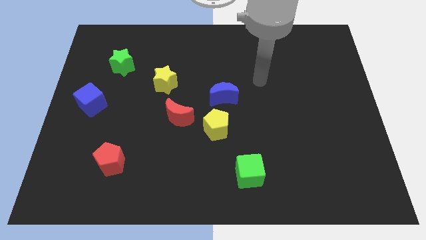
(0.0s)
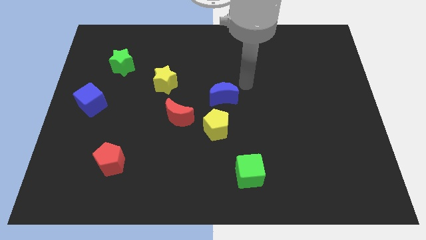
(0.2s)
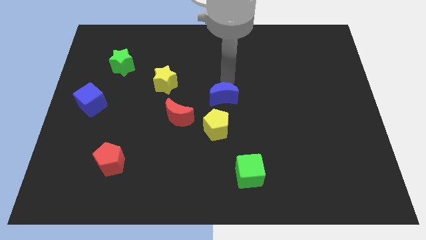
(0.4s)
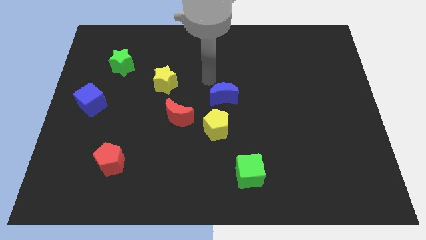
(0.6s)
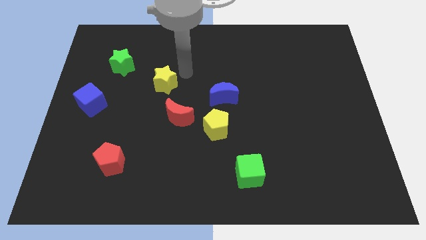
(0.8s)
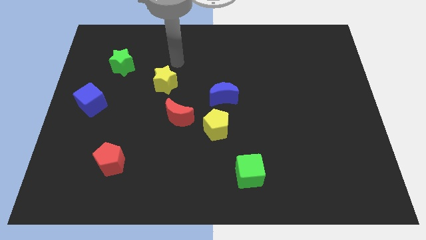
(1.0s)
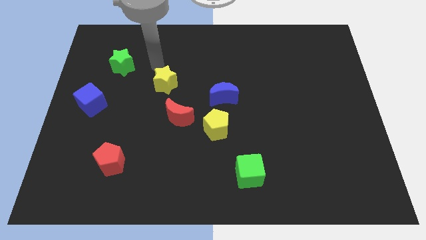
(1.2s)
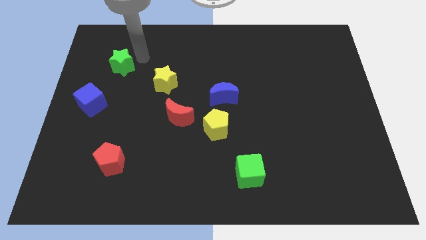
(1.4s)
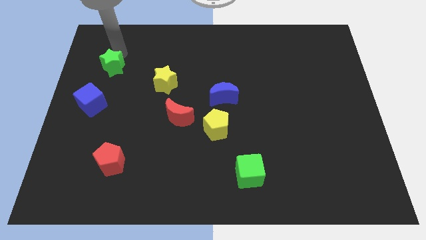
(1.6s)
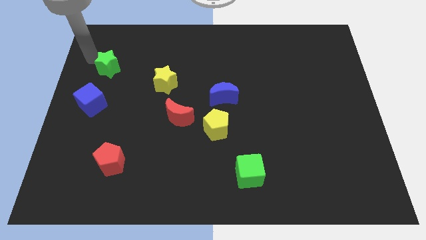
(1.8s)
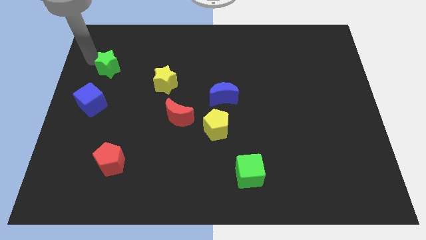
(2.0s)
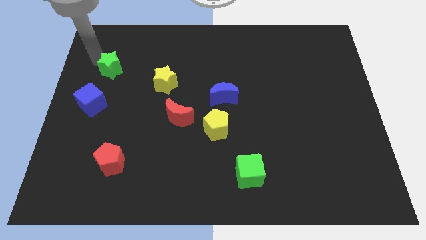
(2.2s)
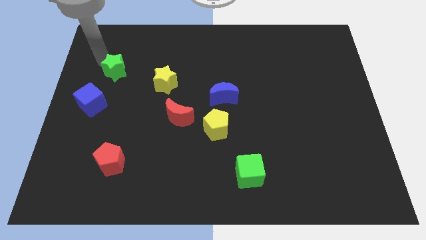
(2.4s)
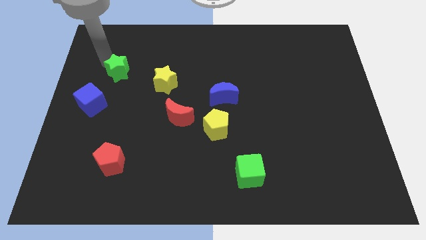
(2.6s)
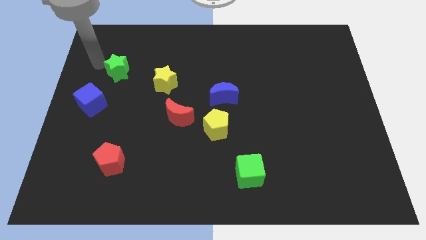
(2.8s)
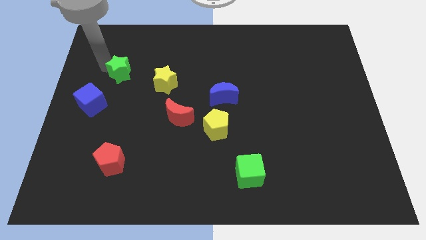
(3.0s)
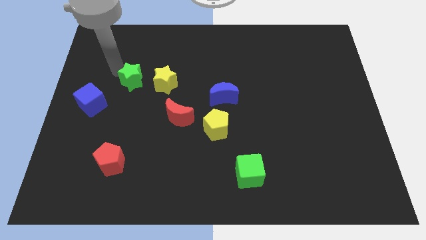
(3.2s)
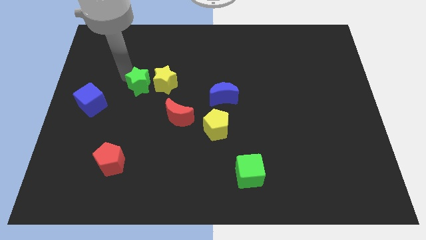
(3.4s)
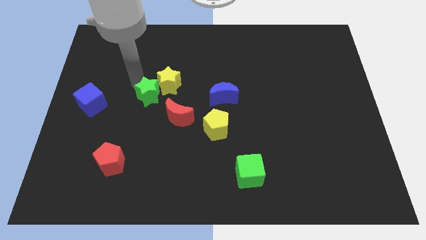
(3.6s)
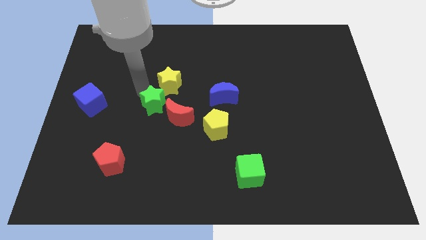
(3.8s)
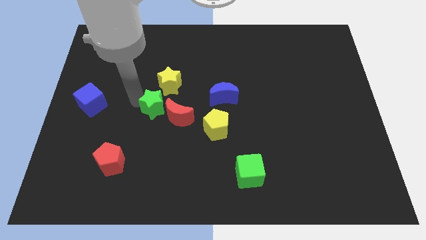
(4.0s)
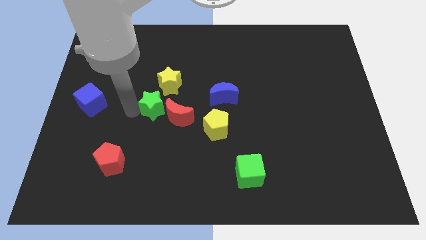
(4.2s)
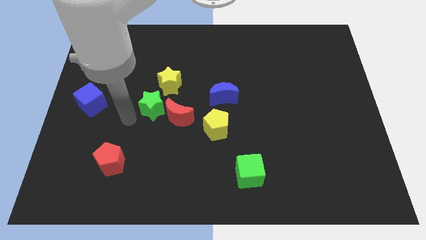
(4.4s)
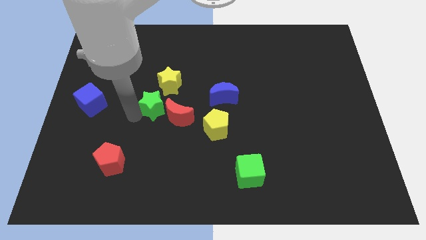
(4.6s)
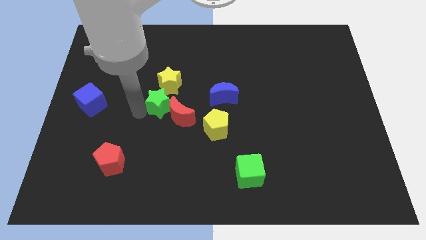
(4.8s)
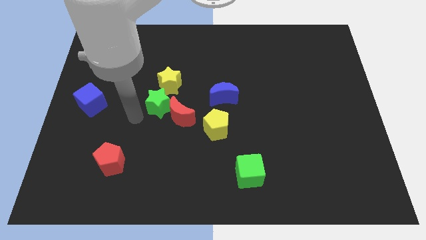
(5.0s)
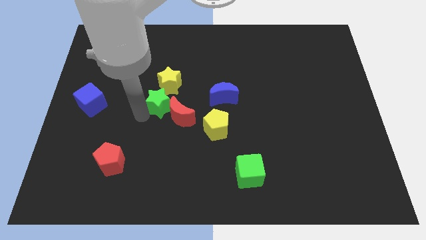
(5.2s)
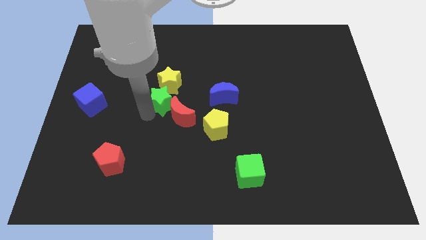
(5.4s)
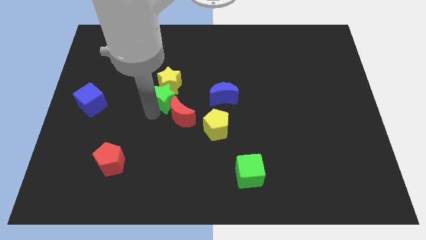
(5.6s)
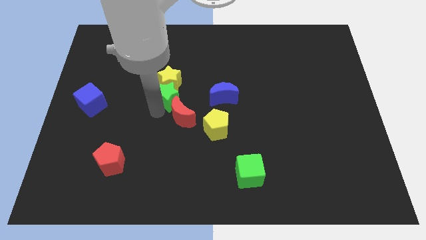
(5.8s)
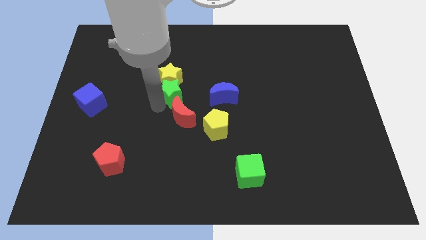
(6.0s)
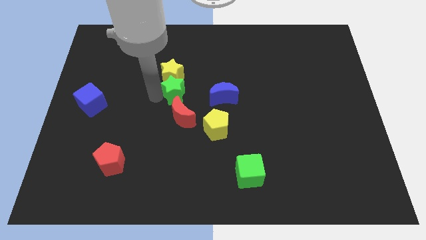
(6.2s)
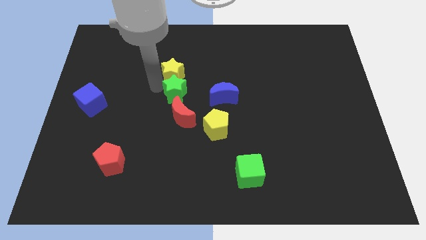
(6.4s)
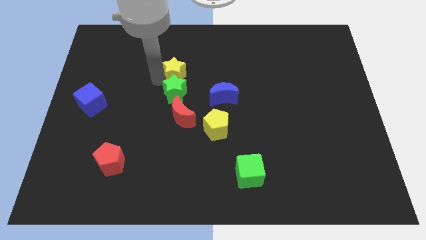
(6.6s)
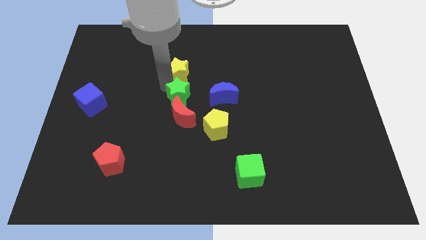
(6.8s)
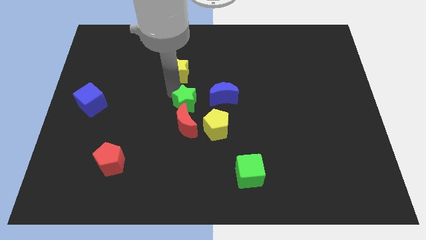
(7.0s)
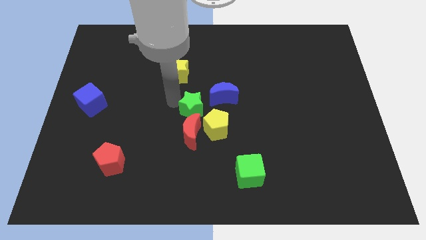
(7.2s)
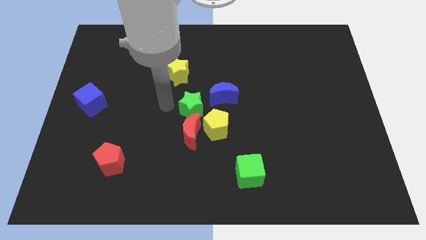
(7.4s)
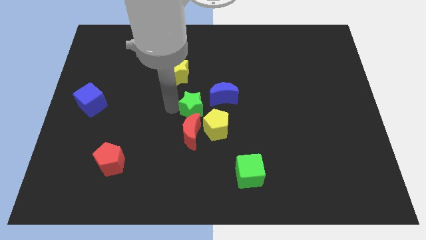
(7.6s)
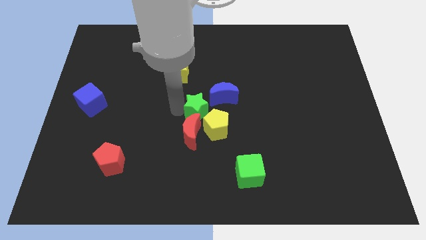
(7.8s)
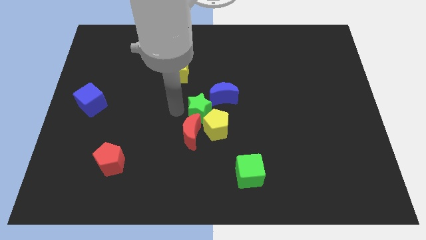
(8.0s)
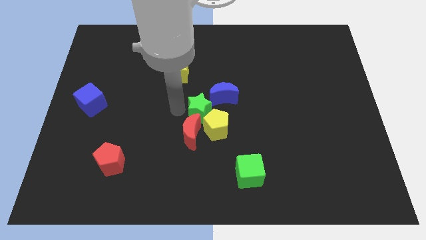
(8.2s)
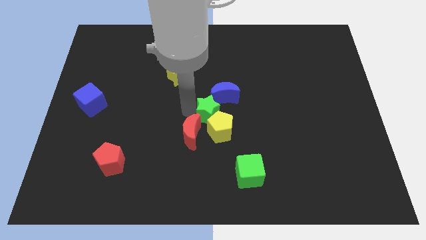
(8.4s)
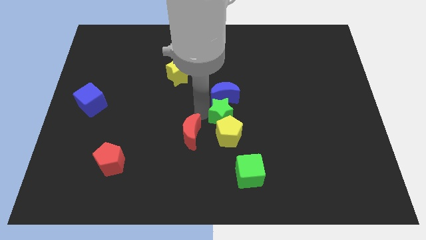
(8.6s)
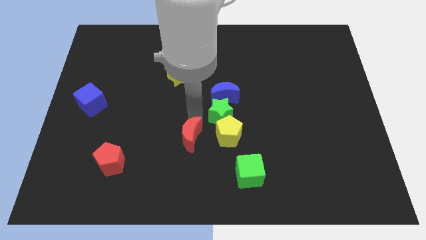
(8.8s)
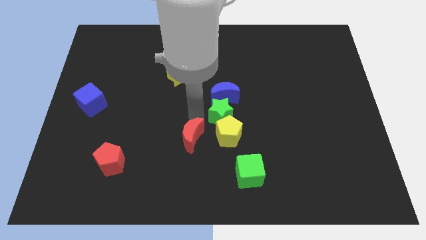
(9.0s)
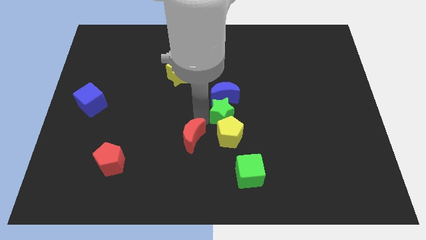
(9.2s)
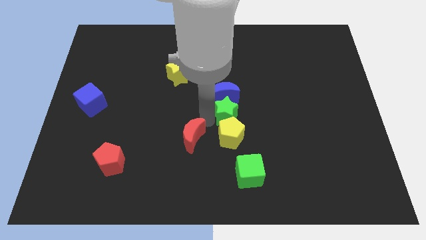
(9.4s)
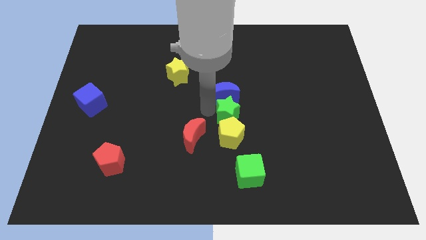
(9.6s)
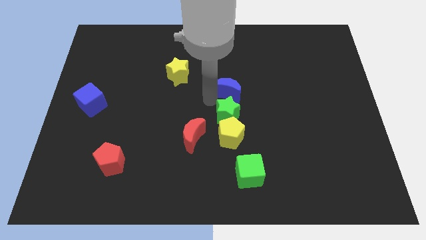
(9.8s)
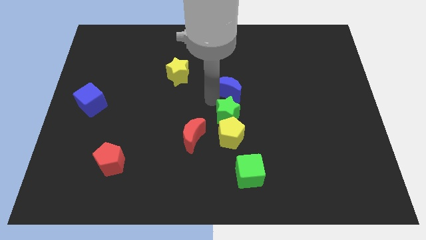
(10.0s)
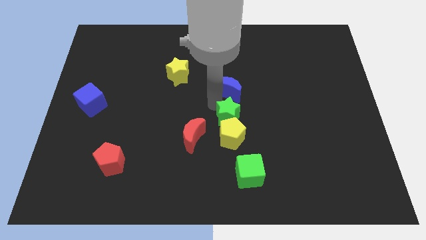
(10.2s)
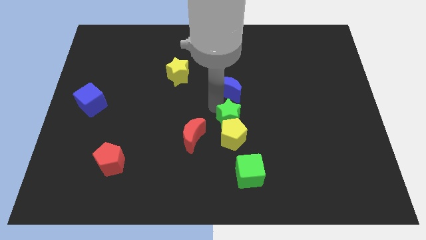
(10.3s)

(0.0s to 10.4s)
put the green star to the top side of the green cube

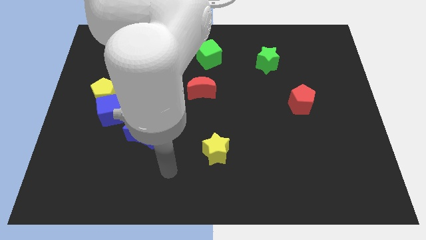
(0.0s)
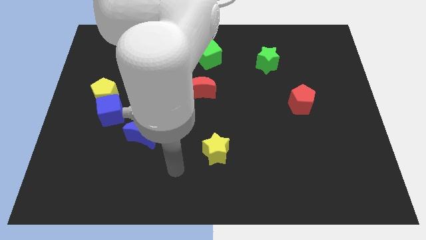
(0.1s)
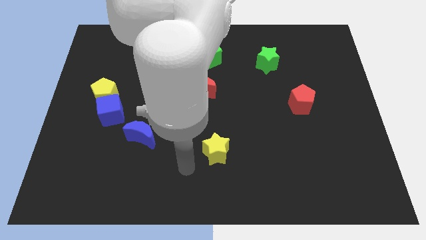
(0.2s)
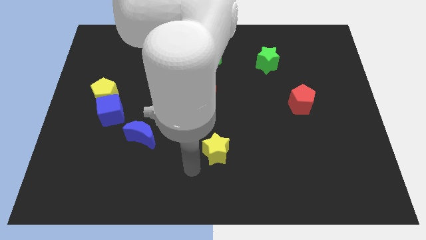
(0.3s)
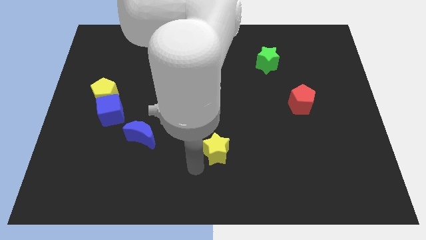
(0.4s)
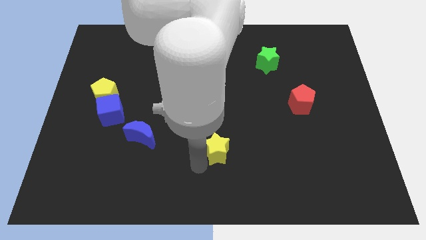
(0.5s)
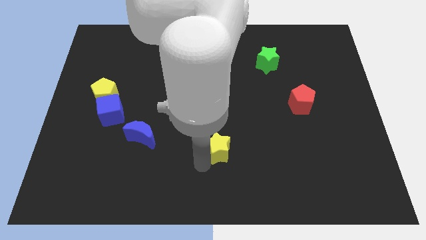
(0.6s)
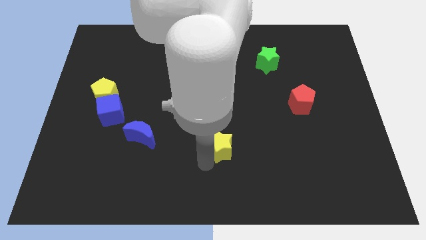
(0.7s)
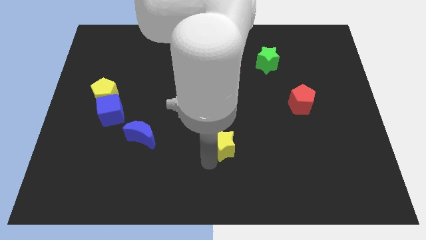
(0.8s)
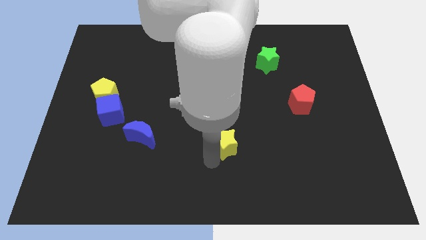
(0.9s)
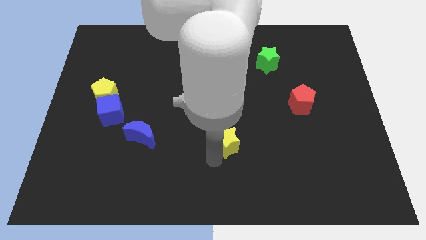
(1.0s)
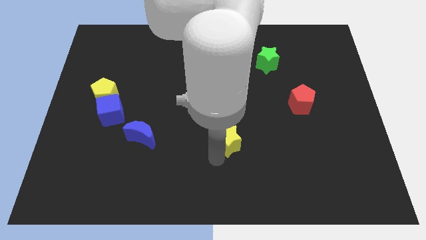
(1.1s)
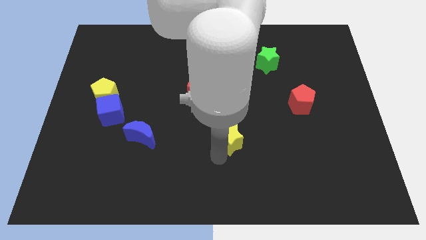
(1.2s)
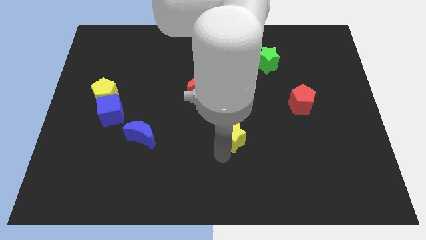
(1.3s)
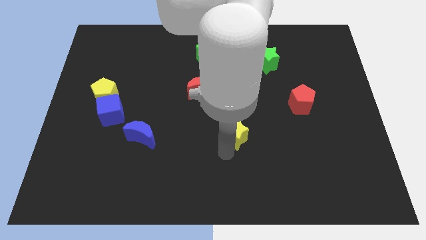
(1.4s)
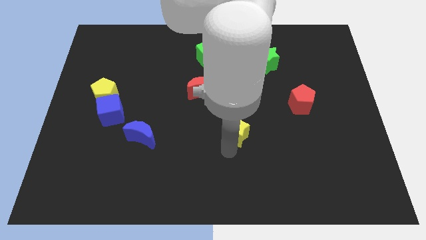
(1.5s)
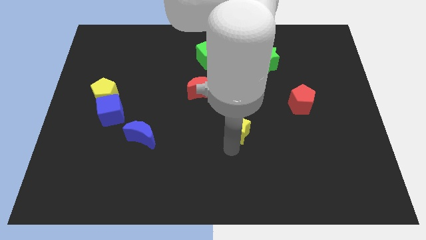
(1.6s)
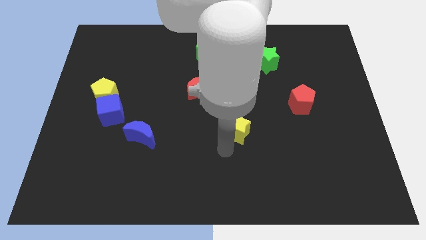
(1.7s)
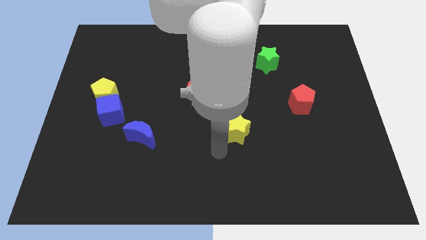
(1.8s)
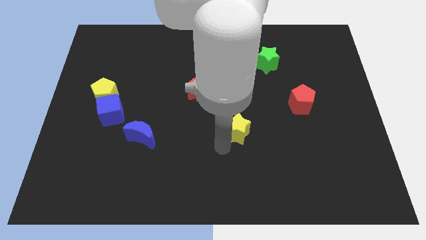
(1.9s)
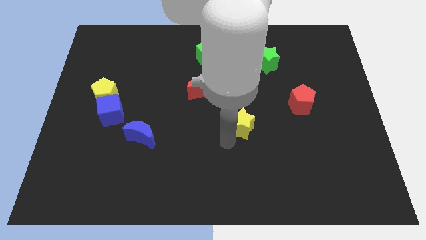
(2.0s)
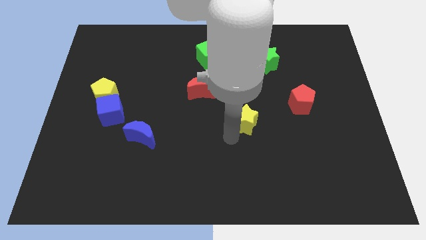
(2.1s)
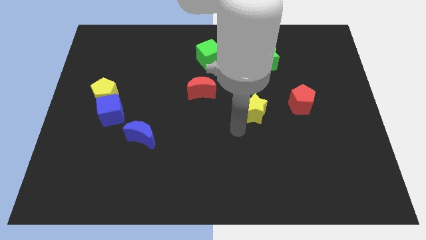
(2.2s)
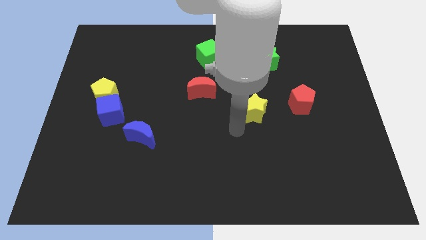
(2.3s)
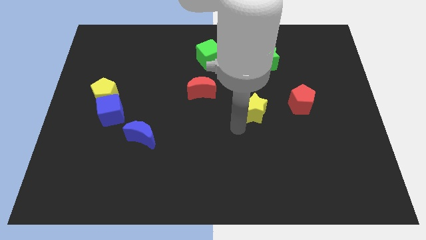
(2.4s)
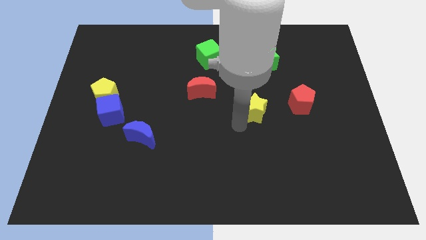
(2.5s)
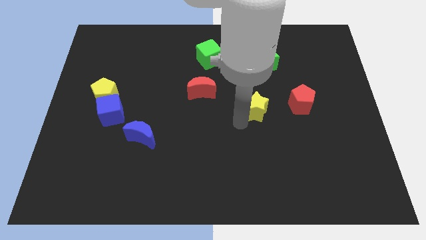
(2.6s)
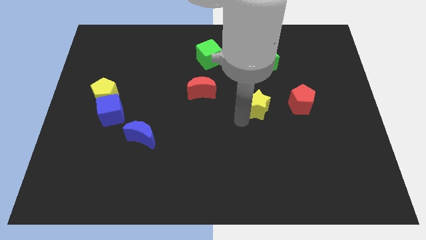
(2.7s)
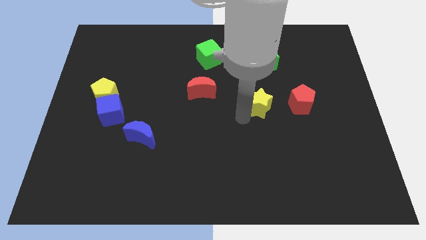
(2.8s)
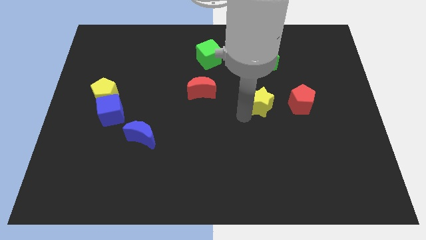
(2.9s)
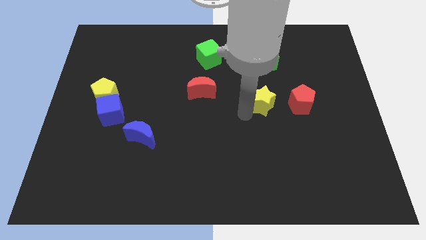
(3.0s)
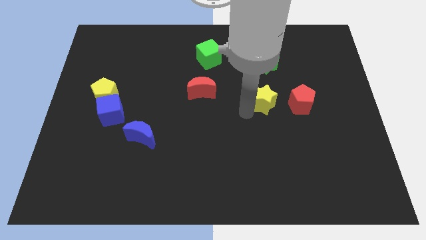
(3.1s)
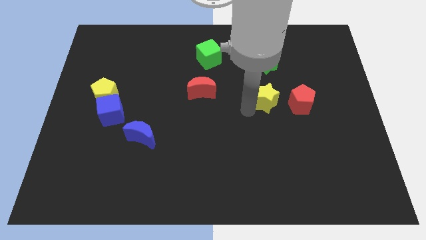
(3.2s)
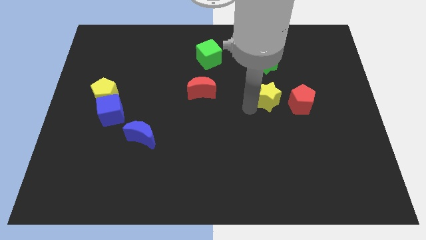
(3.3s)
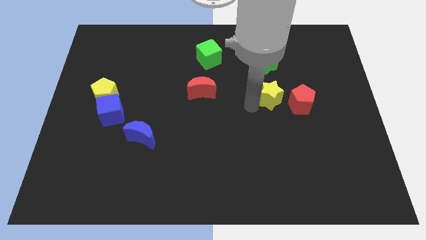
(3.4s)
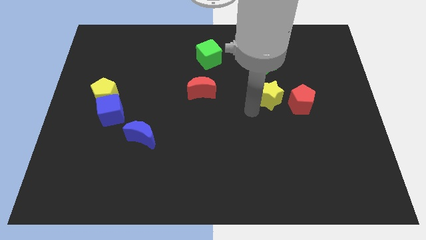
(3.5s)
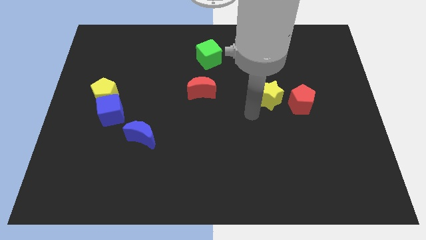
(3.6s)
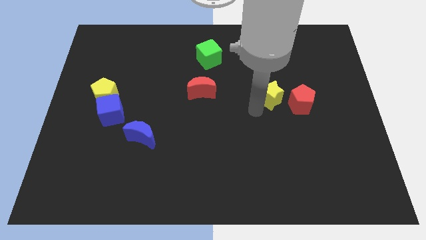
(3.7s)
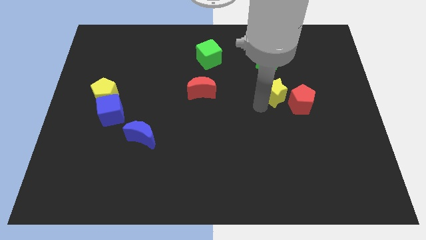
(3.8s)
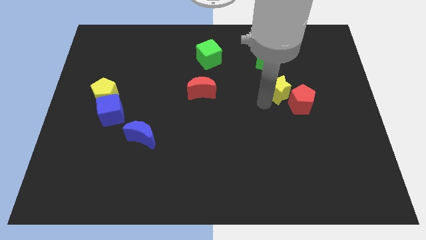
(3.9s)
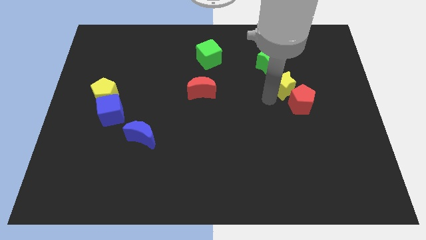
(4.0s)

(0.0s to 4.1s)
put the yellow star to the bottom right of the green star
